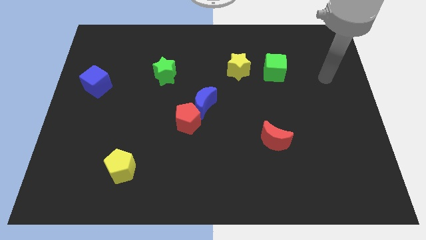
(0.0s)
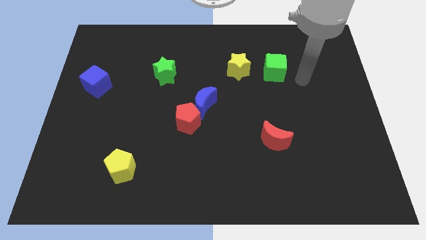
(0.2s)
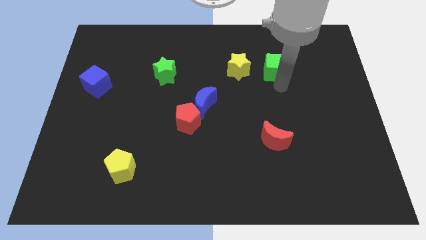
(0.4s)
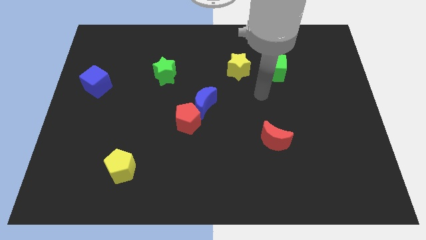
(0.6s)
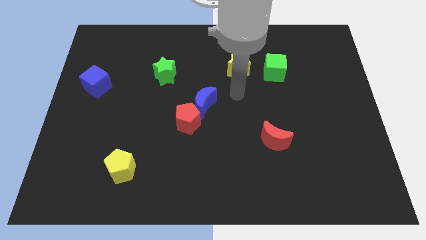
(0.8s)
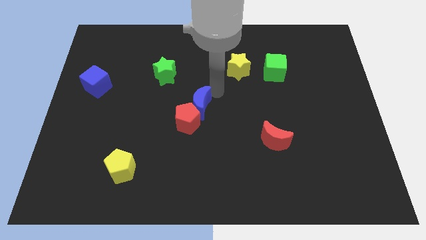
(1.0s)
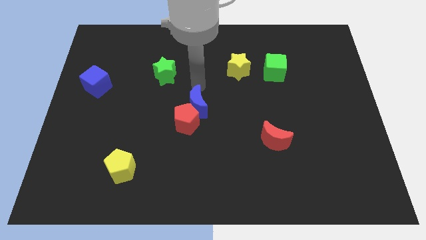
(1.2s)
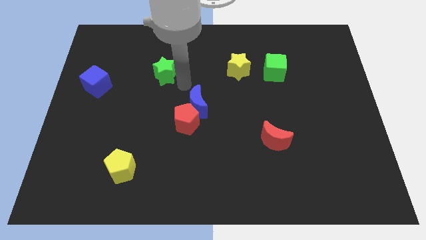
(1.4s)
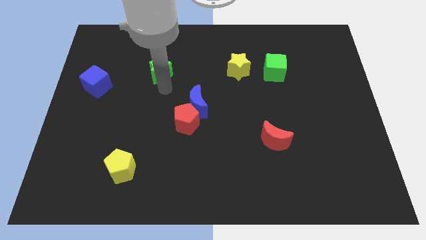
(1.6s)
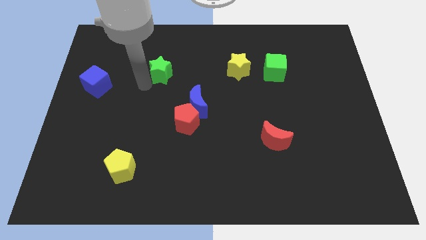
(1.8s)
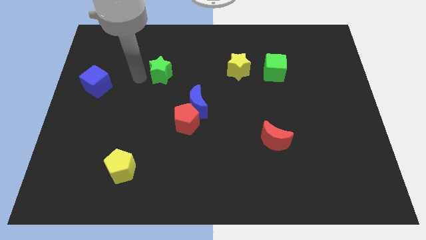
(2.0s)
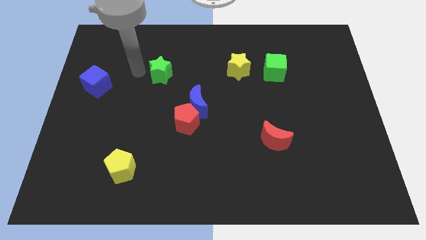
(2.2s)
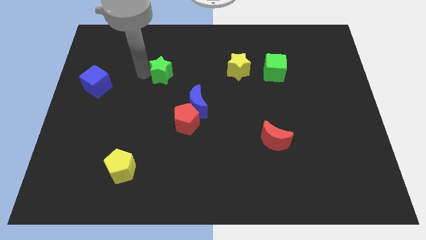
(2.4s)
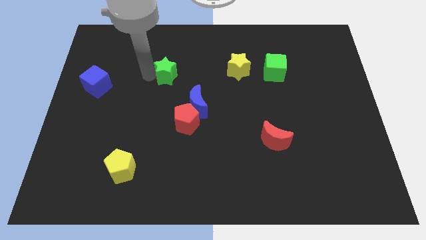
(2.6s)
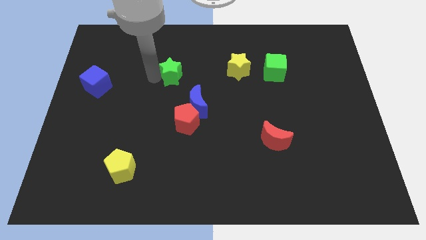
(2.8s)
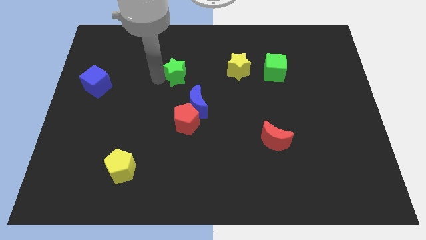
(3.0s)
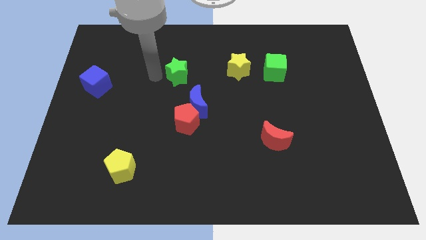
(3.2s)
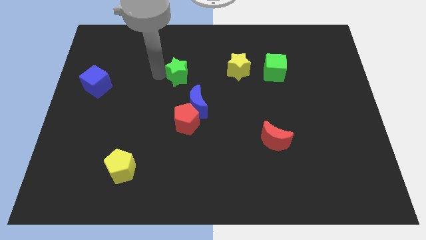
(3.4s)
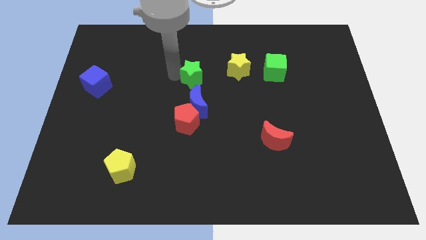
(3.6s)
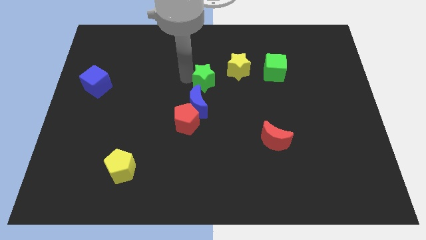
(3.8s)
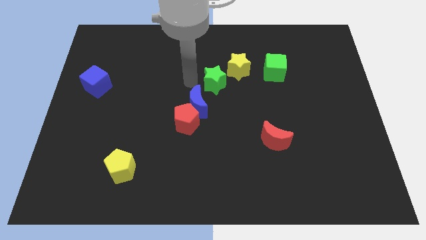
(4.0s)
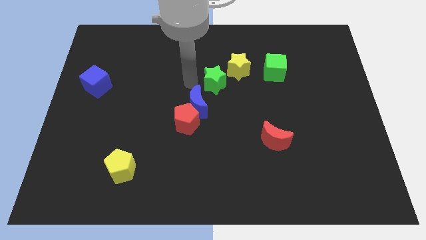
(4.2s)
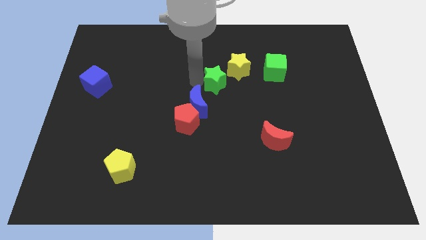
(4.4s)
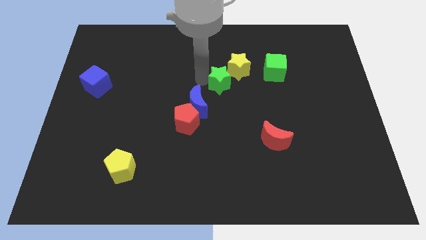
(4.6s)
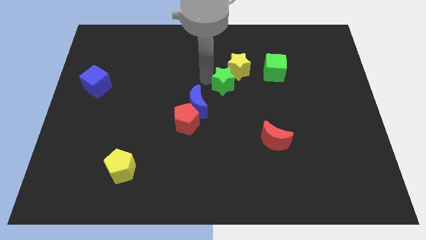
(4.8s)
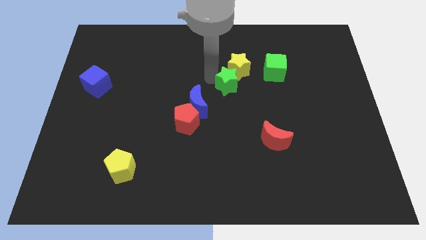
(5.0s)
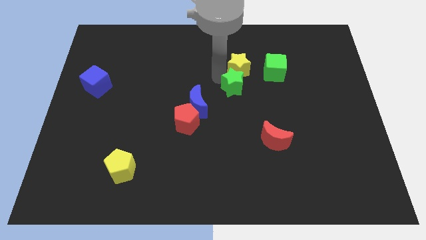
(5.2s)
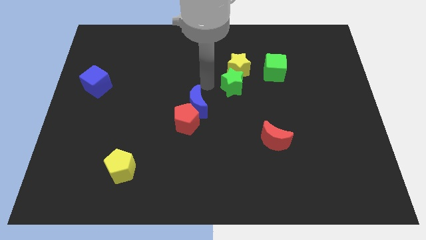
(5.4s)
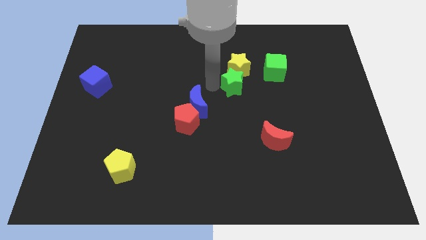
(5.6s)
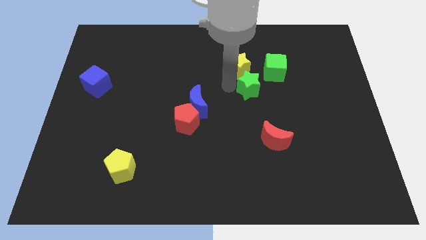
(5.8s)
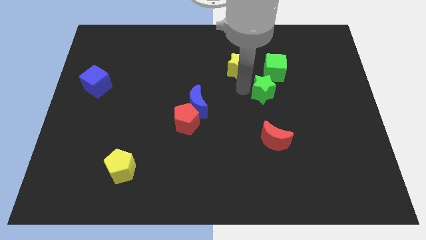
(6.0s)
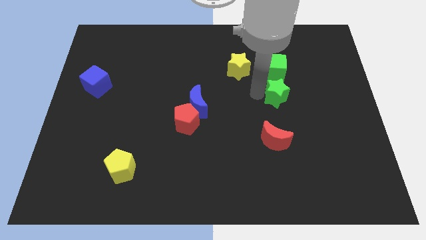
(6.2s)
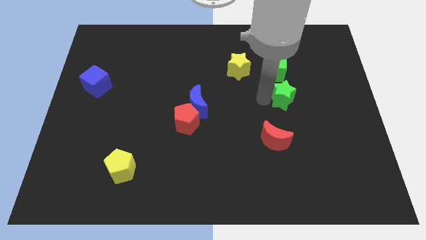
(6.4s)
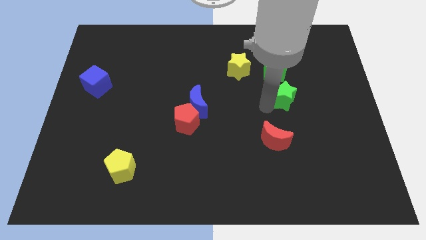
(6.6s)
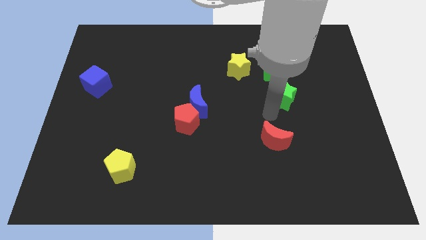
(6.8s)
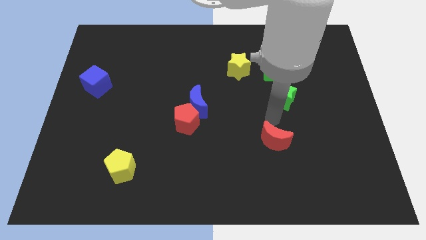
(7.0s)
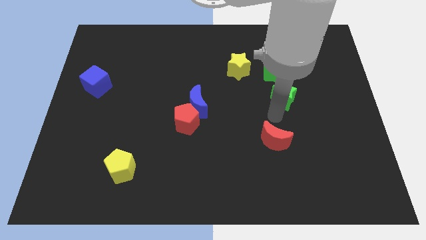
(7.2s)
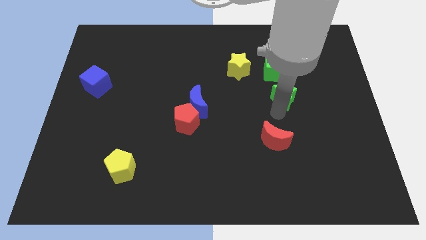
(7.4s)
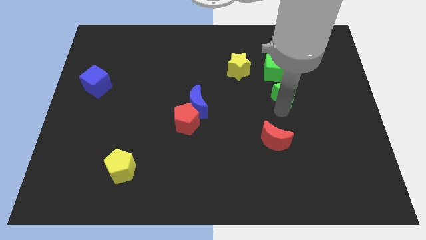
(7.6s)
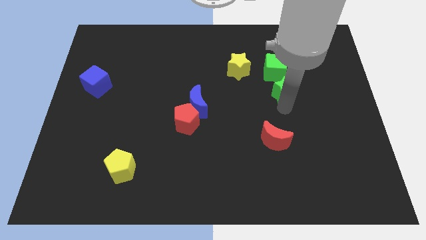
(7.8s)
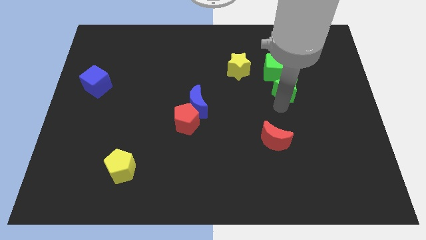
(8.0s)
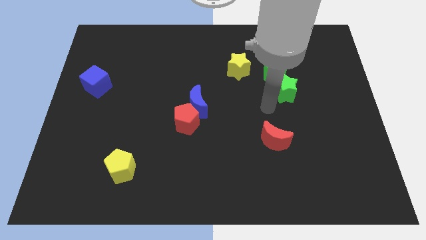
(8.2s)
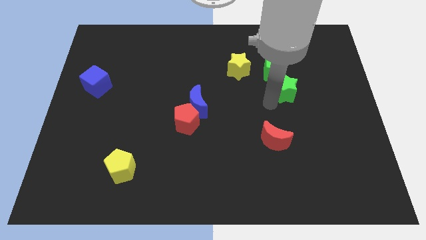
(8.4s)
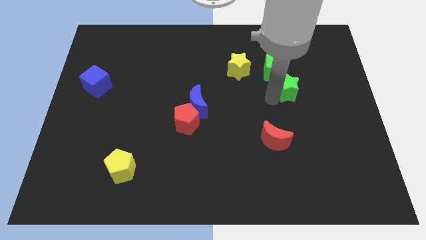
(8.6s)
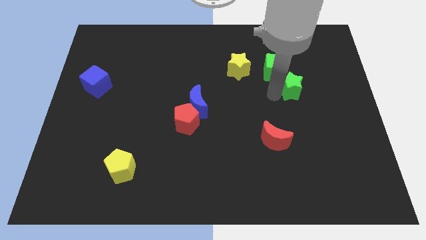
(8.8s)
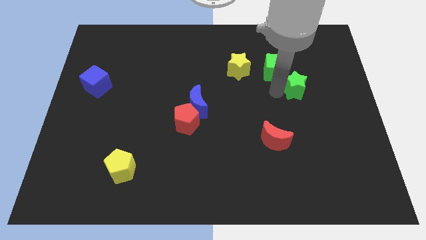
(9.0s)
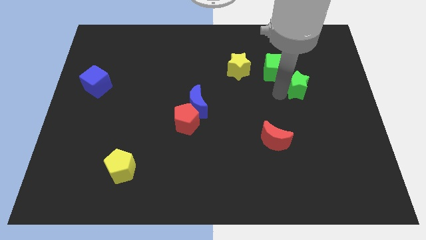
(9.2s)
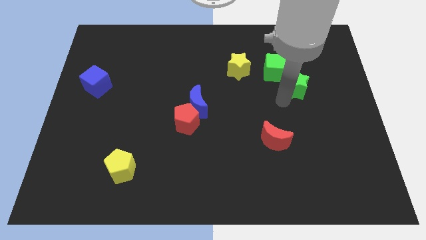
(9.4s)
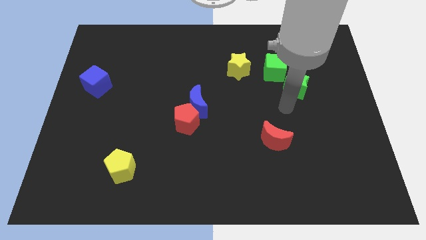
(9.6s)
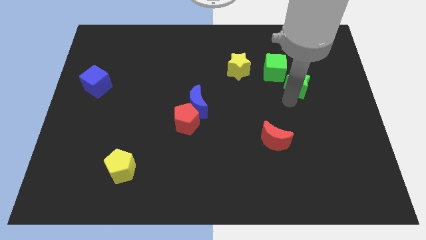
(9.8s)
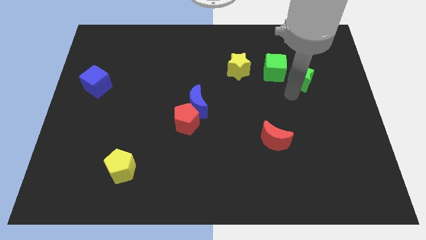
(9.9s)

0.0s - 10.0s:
put the green star right of the green cube

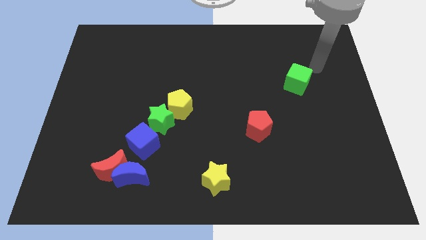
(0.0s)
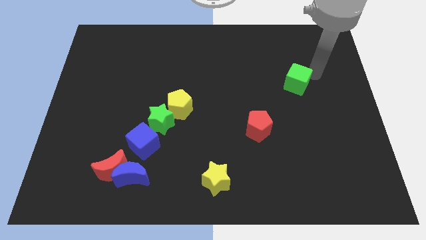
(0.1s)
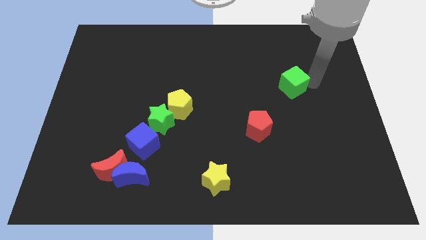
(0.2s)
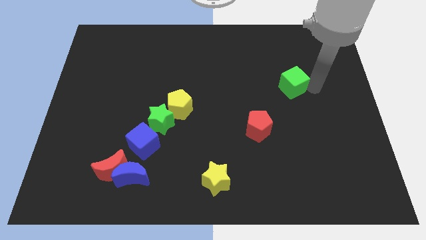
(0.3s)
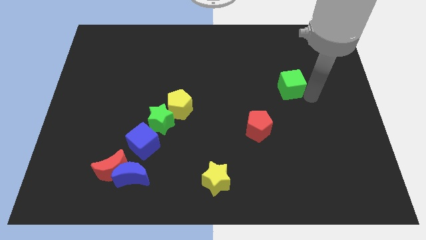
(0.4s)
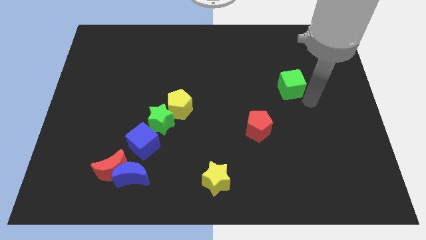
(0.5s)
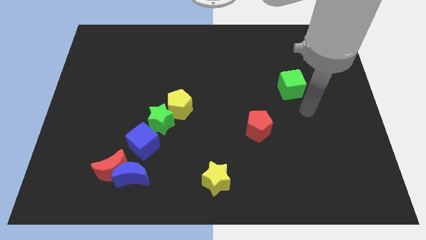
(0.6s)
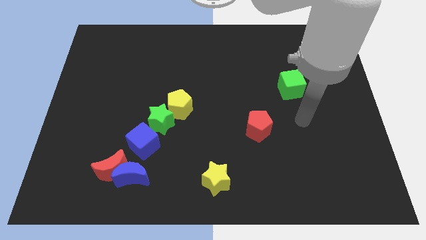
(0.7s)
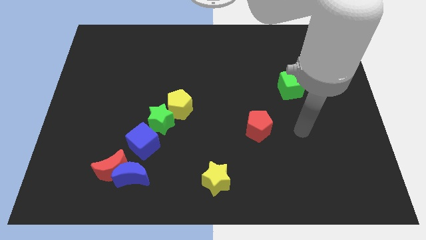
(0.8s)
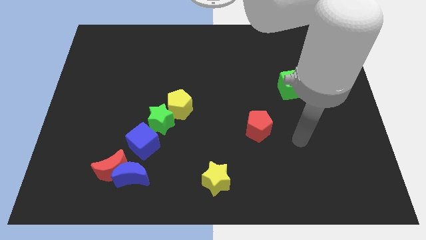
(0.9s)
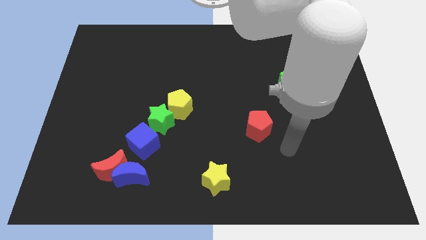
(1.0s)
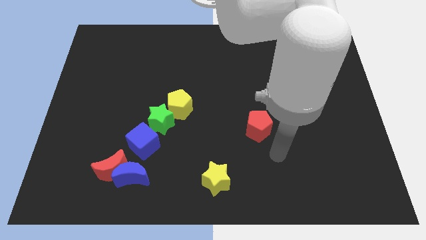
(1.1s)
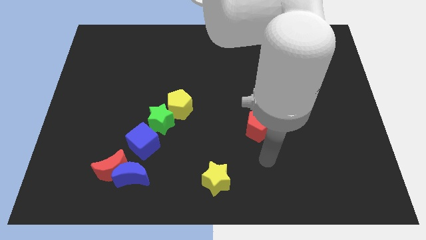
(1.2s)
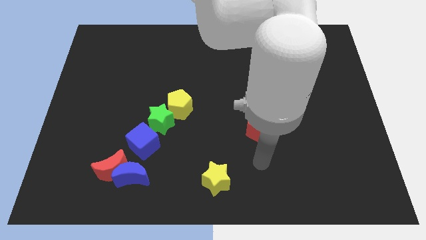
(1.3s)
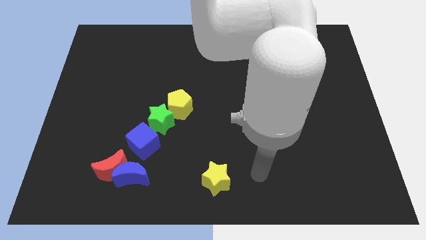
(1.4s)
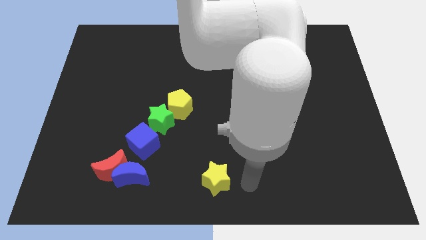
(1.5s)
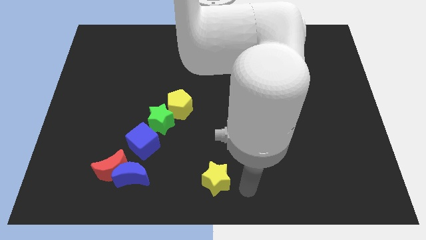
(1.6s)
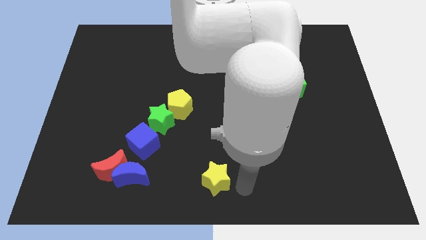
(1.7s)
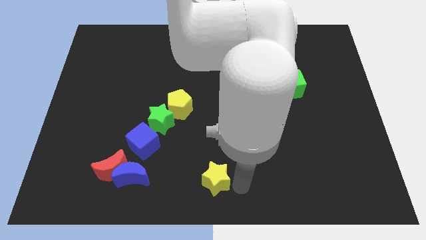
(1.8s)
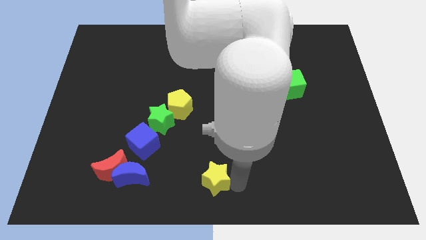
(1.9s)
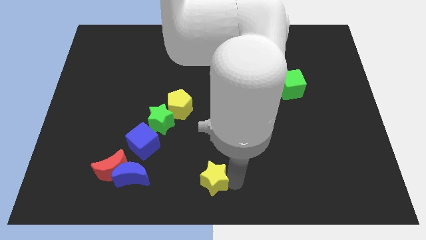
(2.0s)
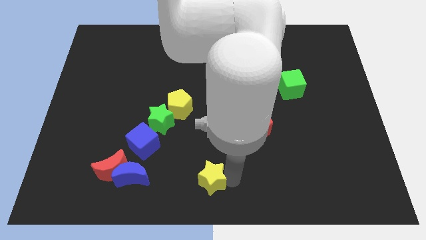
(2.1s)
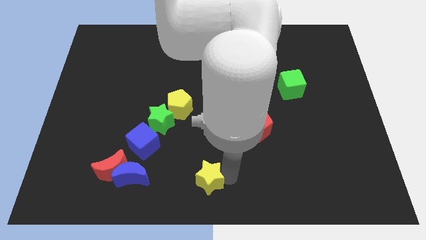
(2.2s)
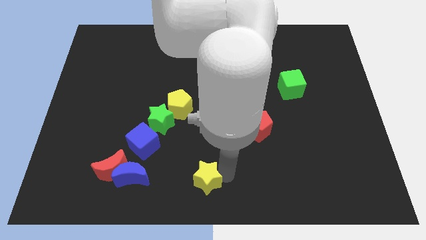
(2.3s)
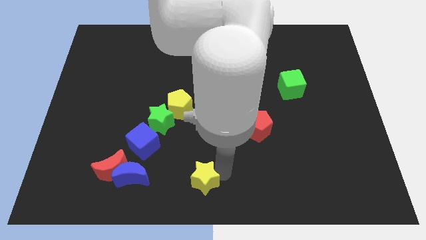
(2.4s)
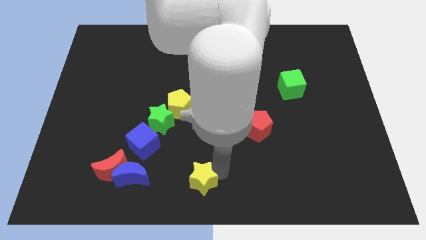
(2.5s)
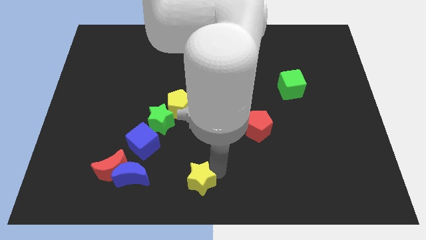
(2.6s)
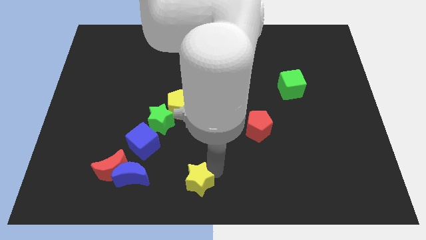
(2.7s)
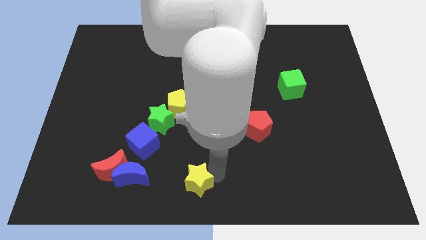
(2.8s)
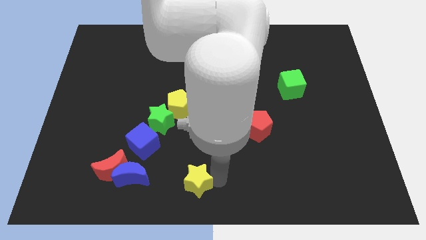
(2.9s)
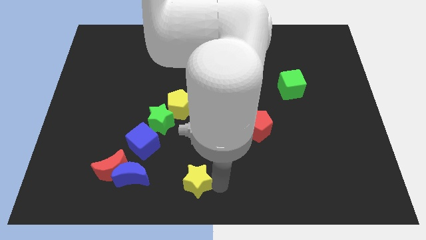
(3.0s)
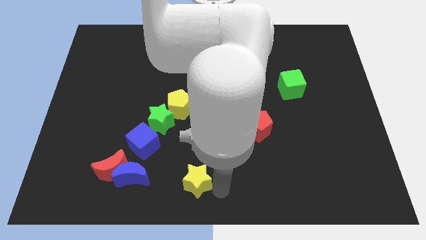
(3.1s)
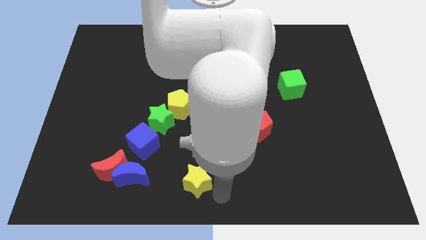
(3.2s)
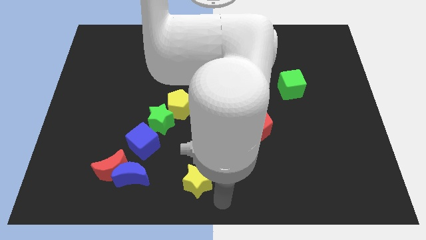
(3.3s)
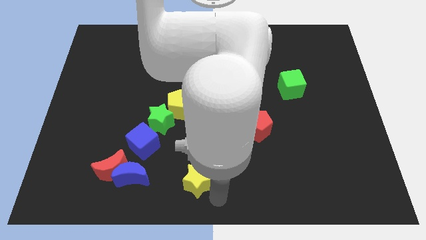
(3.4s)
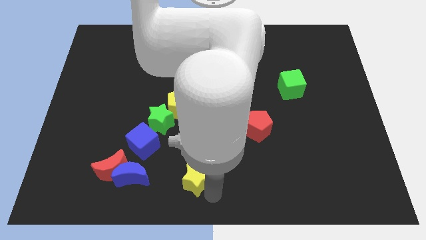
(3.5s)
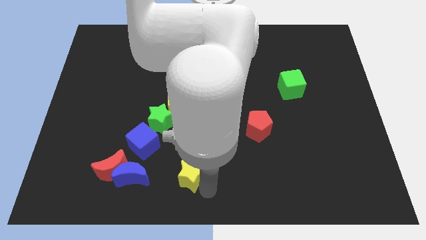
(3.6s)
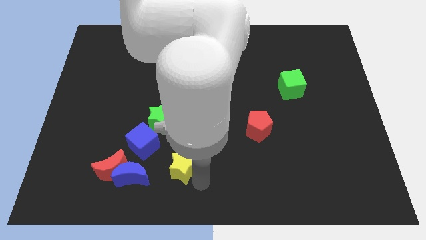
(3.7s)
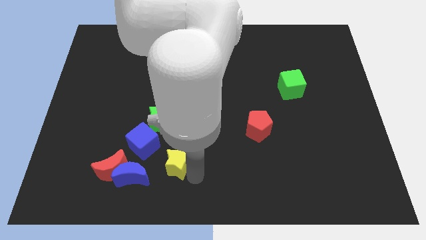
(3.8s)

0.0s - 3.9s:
slide the yellow star to the bottom side of the green star
